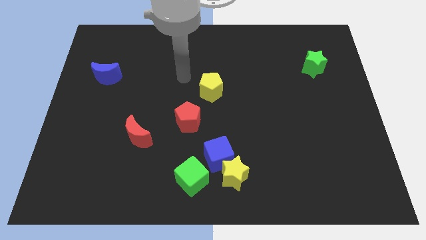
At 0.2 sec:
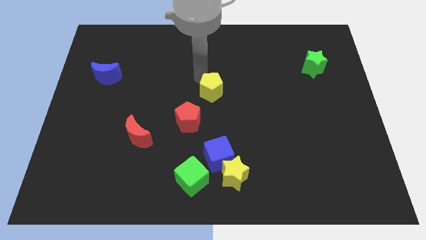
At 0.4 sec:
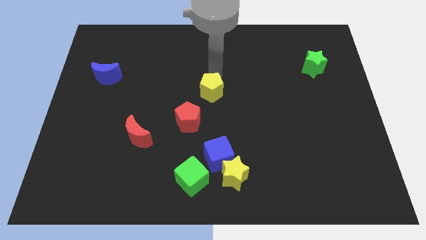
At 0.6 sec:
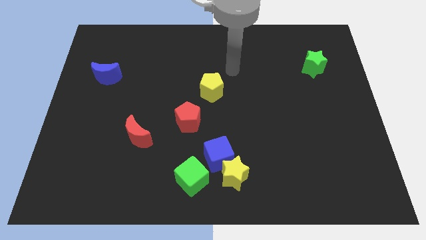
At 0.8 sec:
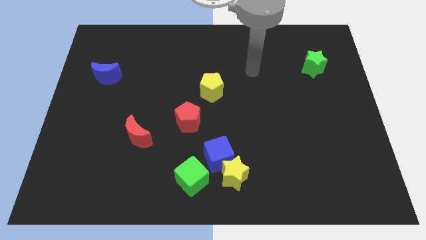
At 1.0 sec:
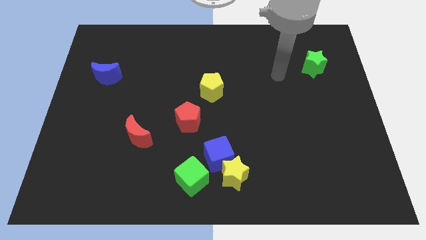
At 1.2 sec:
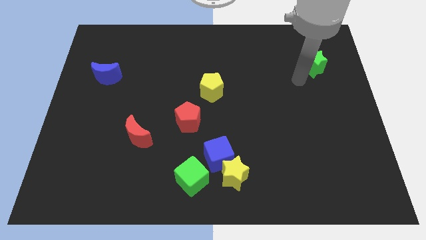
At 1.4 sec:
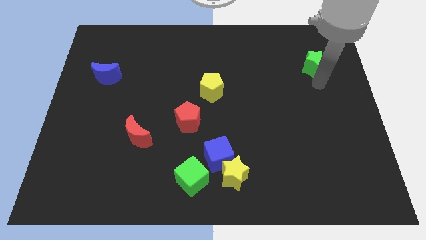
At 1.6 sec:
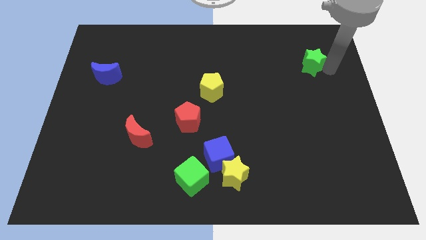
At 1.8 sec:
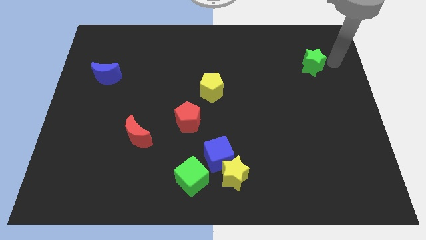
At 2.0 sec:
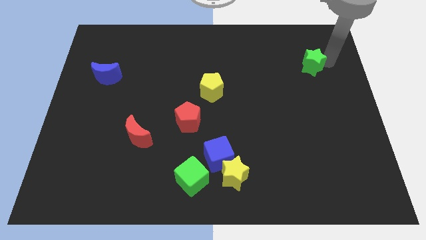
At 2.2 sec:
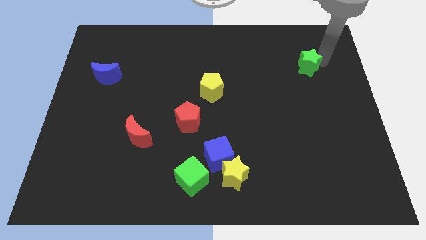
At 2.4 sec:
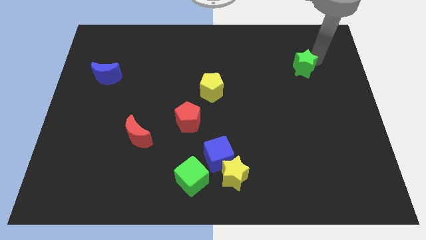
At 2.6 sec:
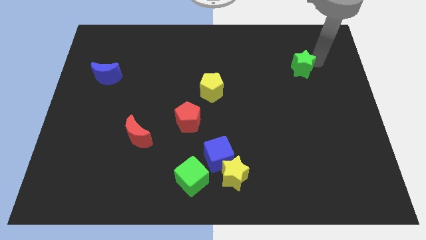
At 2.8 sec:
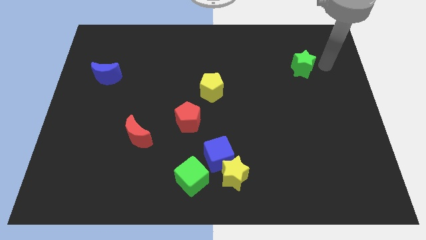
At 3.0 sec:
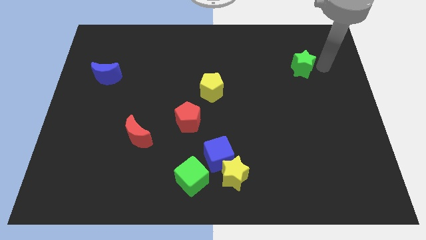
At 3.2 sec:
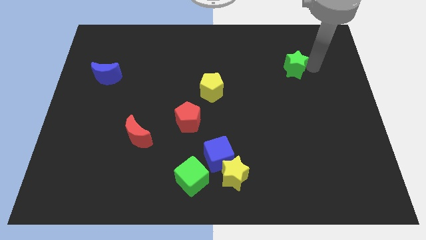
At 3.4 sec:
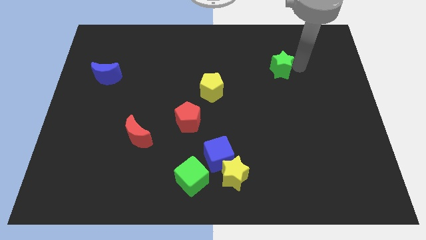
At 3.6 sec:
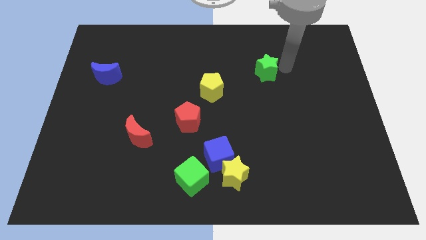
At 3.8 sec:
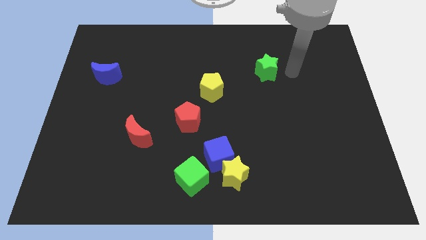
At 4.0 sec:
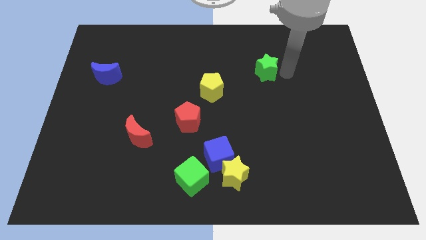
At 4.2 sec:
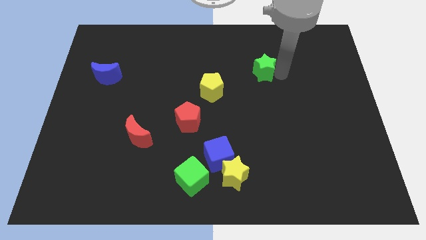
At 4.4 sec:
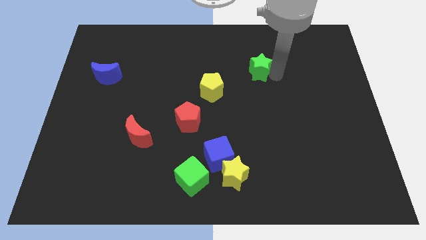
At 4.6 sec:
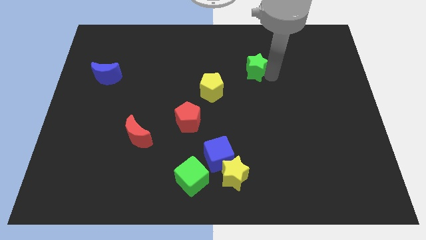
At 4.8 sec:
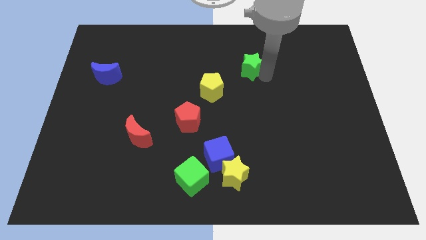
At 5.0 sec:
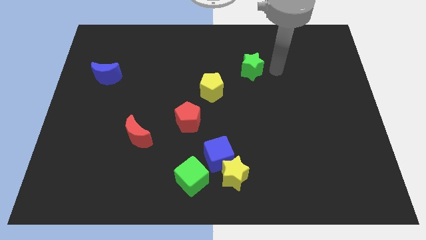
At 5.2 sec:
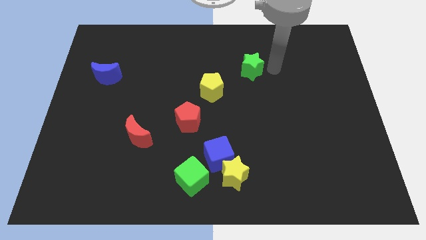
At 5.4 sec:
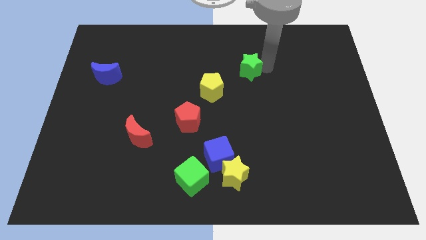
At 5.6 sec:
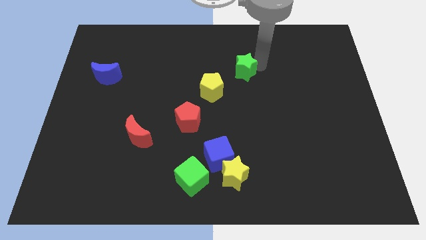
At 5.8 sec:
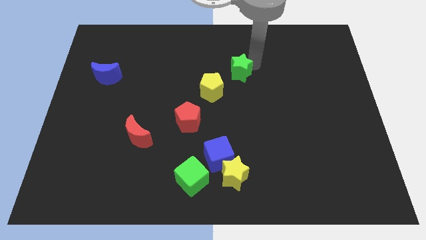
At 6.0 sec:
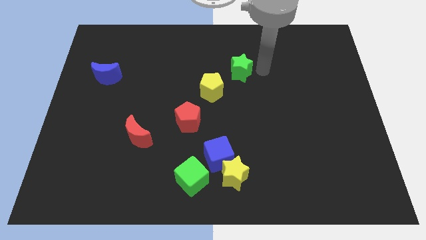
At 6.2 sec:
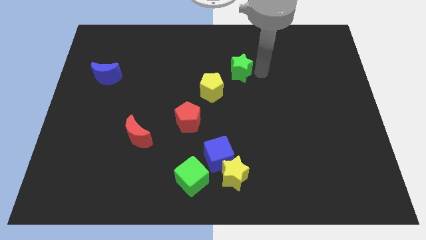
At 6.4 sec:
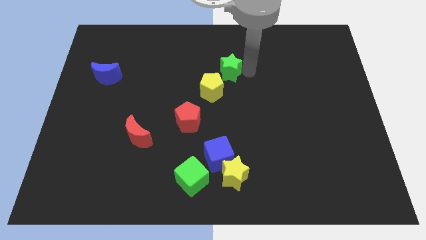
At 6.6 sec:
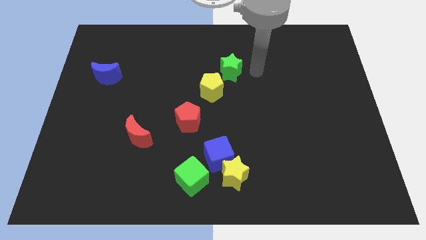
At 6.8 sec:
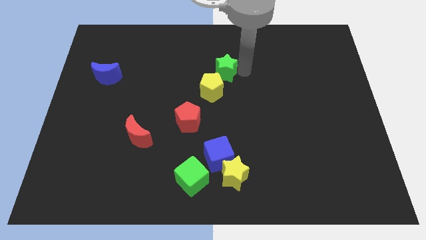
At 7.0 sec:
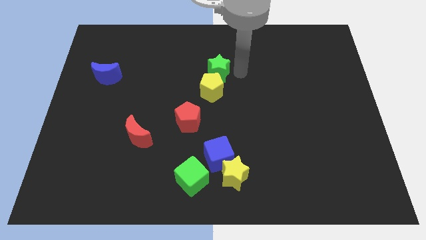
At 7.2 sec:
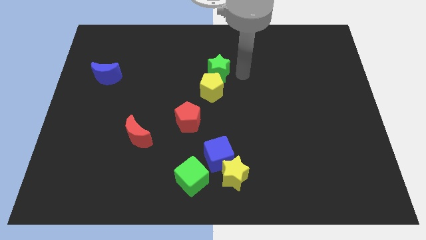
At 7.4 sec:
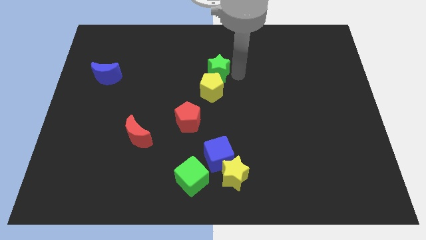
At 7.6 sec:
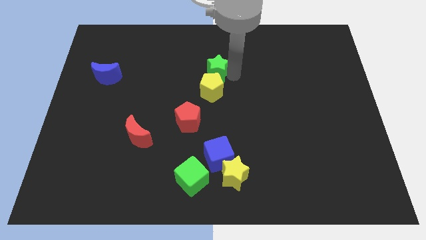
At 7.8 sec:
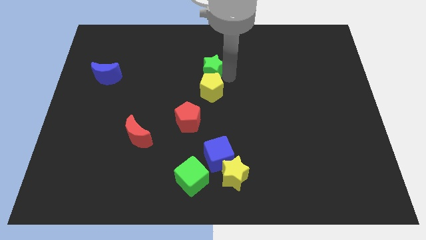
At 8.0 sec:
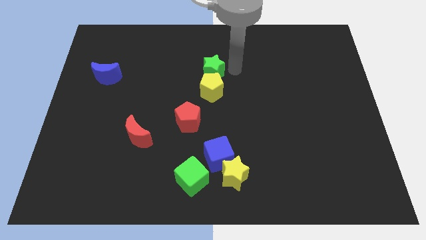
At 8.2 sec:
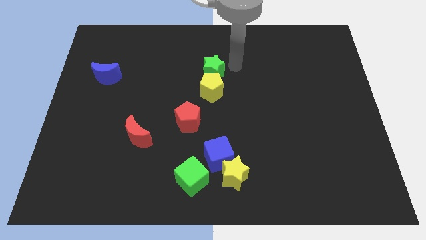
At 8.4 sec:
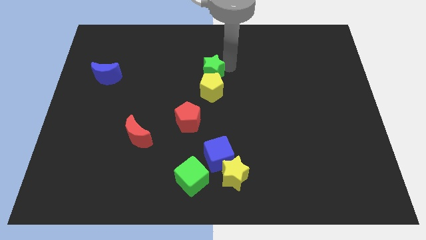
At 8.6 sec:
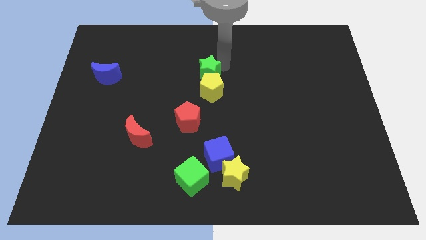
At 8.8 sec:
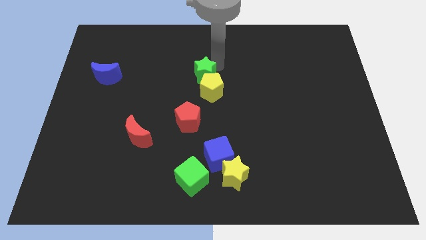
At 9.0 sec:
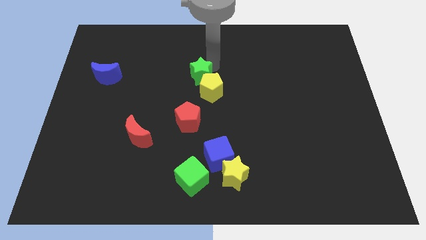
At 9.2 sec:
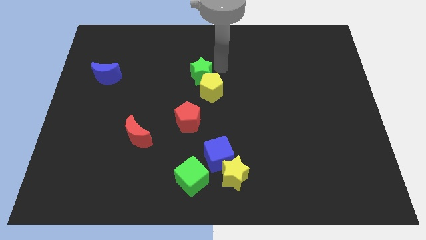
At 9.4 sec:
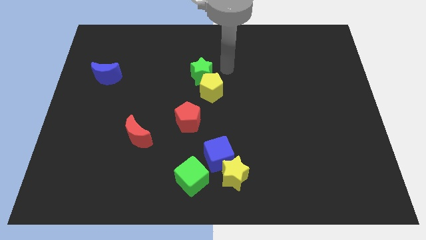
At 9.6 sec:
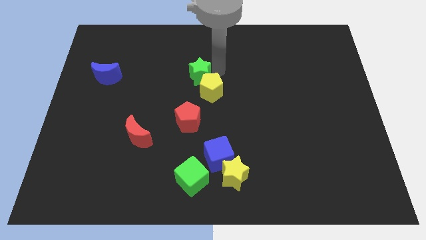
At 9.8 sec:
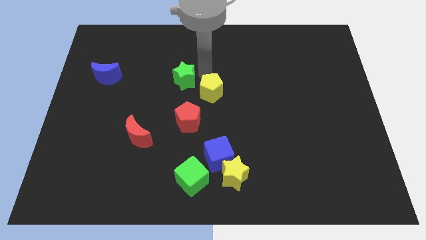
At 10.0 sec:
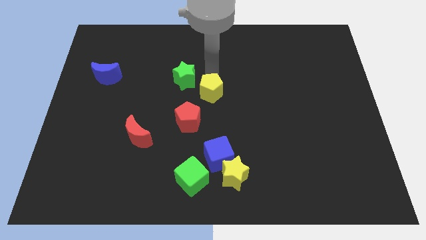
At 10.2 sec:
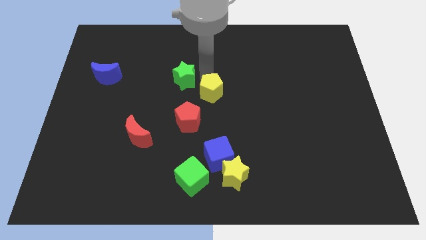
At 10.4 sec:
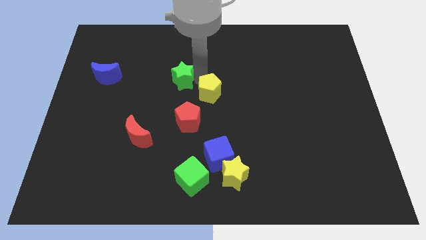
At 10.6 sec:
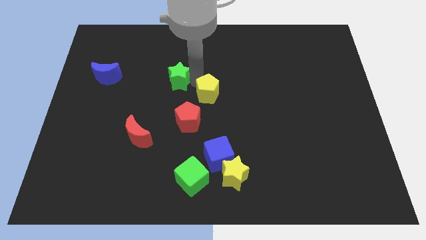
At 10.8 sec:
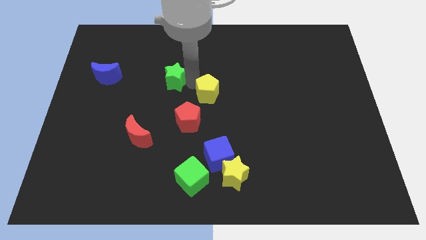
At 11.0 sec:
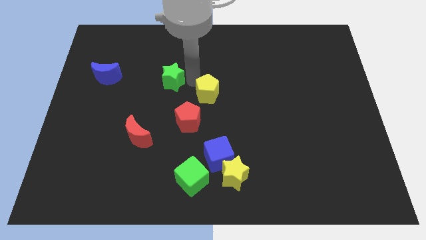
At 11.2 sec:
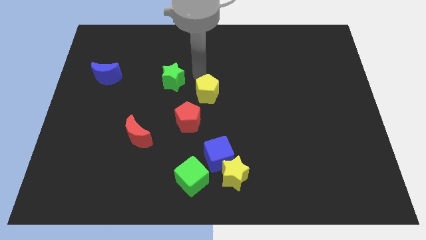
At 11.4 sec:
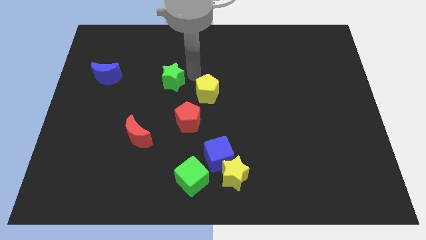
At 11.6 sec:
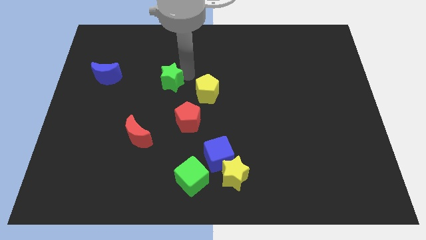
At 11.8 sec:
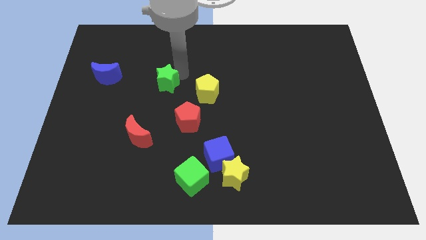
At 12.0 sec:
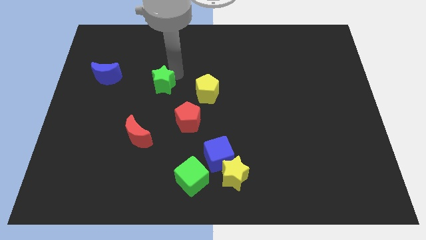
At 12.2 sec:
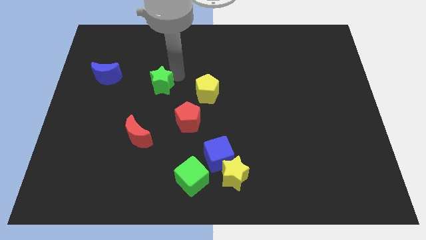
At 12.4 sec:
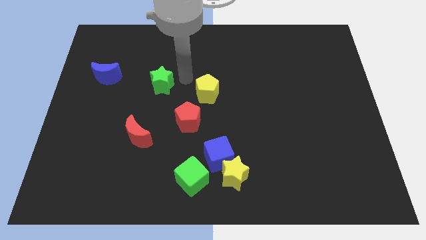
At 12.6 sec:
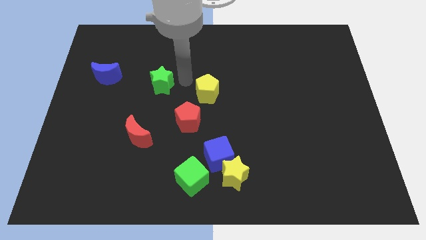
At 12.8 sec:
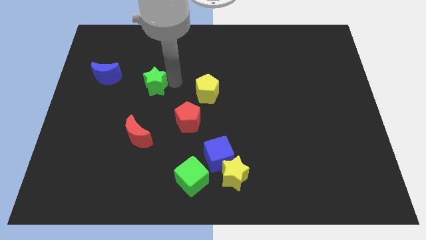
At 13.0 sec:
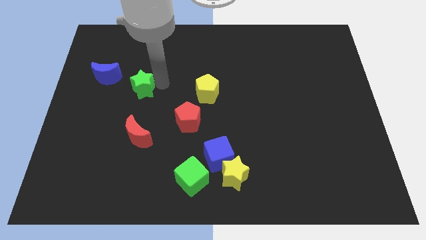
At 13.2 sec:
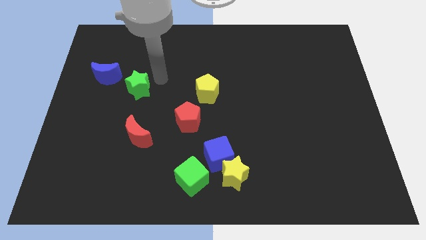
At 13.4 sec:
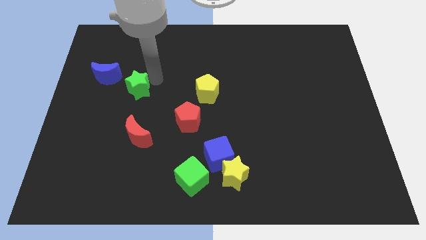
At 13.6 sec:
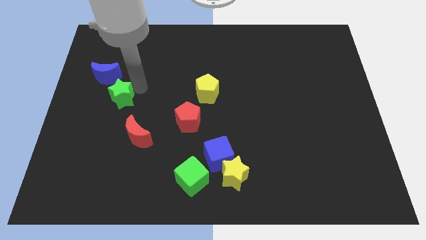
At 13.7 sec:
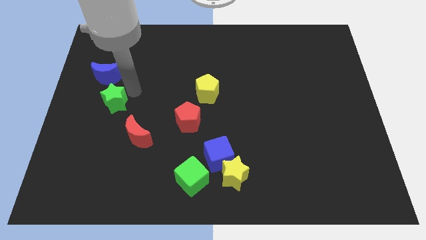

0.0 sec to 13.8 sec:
put the green star to the bottom of the blue moon
